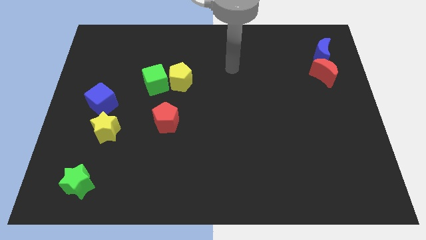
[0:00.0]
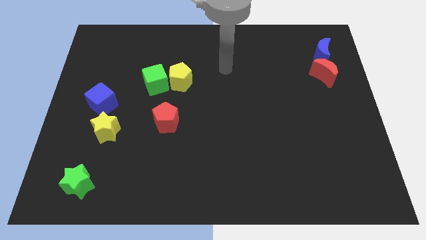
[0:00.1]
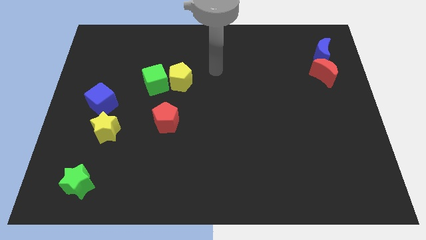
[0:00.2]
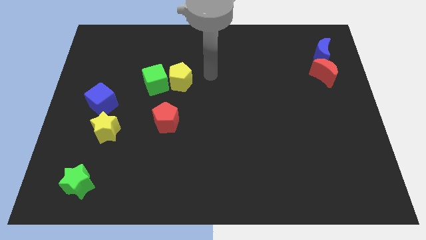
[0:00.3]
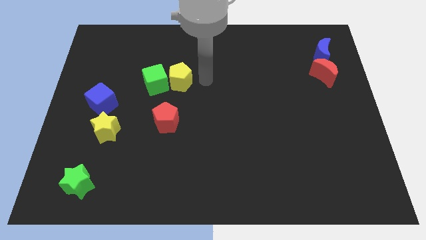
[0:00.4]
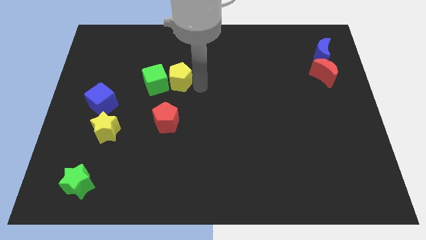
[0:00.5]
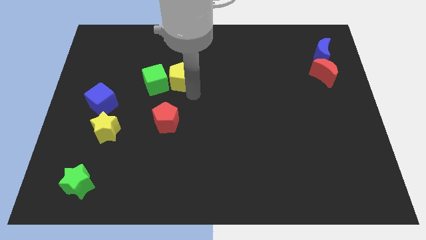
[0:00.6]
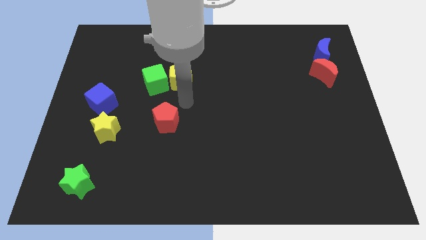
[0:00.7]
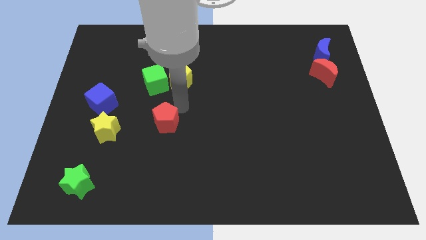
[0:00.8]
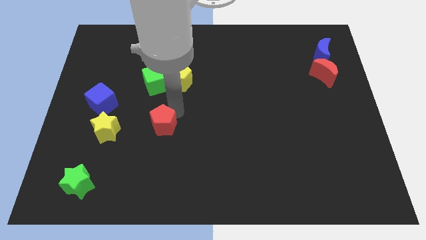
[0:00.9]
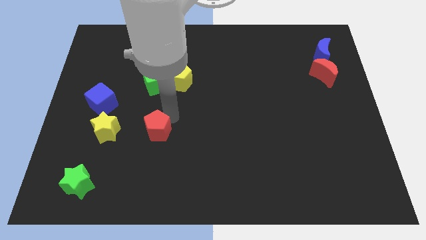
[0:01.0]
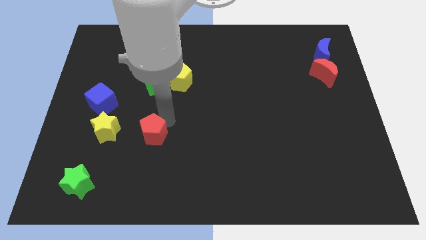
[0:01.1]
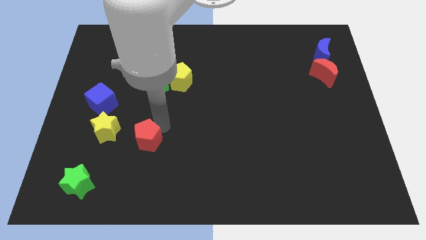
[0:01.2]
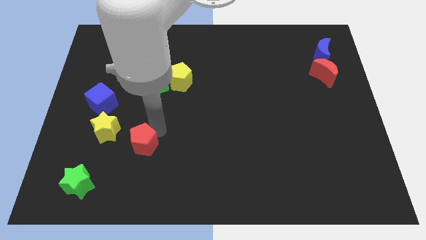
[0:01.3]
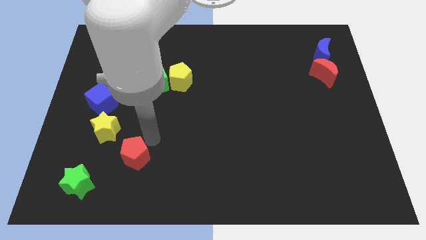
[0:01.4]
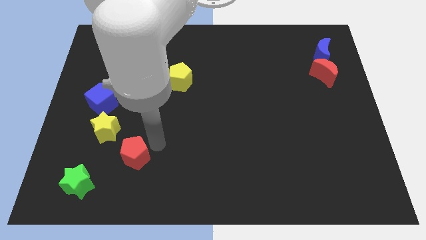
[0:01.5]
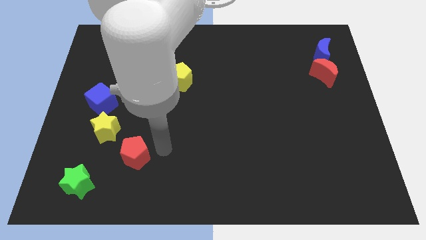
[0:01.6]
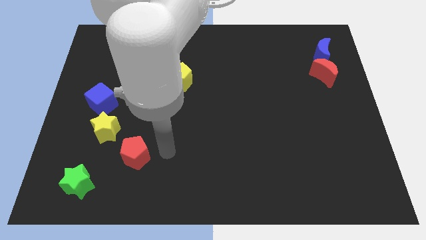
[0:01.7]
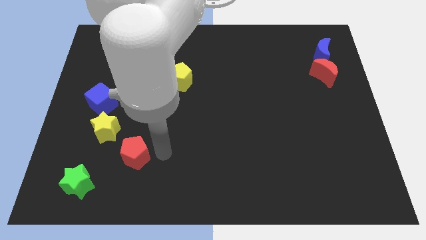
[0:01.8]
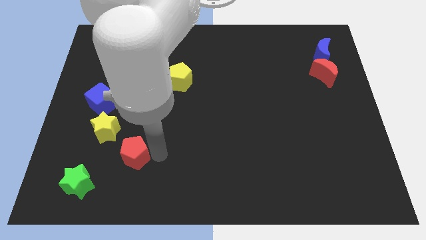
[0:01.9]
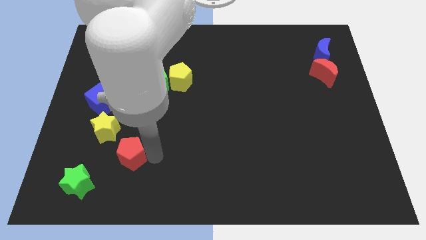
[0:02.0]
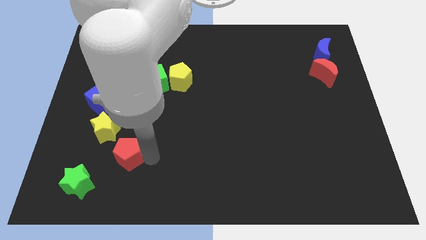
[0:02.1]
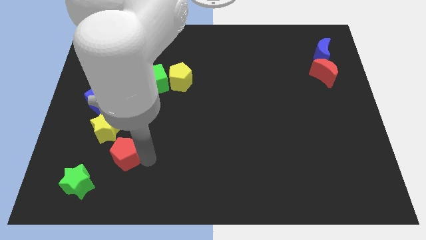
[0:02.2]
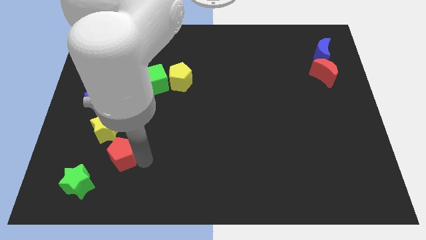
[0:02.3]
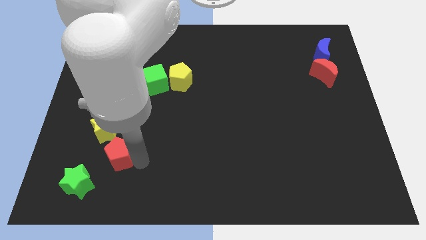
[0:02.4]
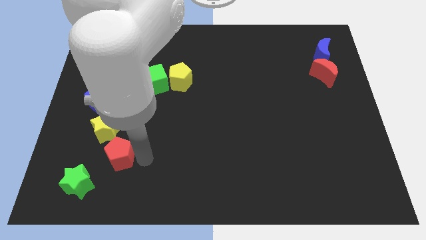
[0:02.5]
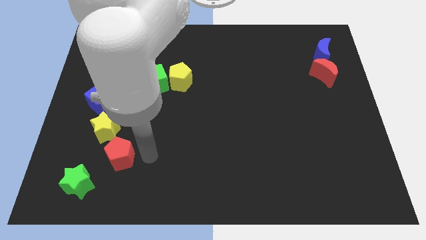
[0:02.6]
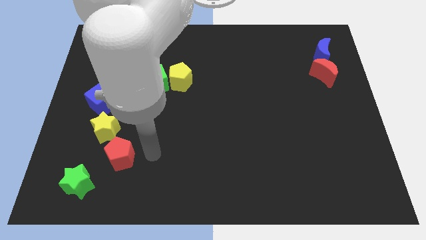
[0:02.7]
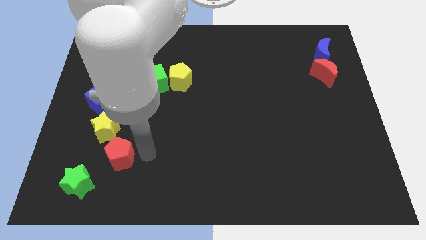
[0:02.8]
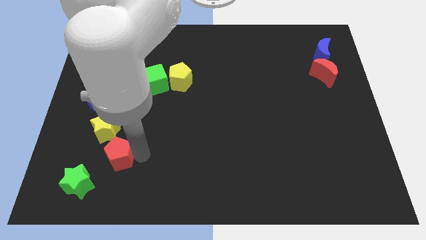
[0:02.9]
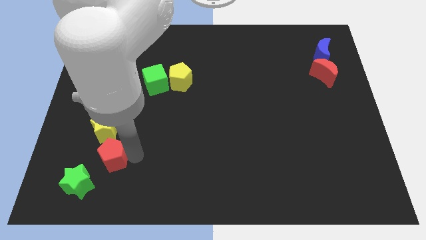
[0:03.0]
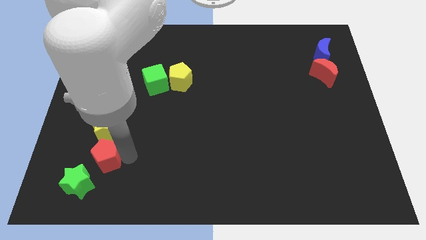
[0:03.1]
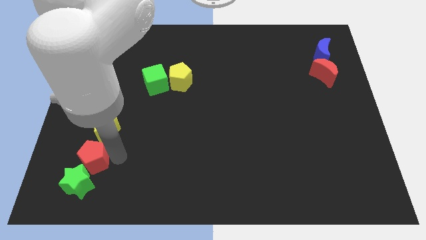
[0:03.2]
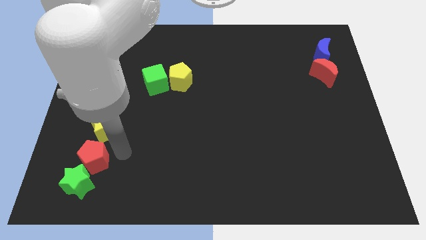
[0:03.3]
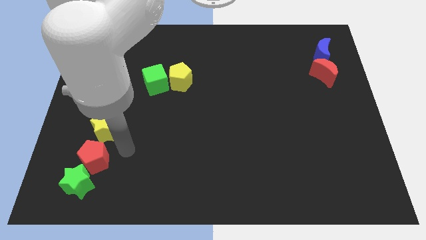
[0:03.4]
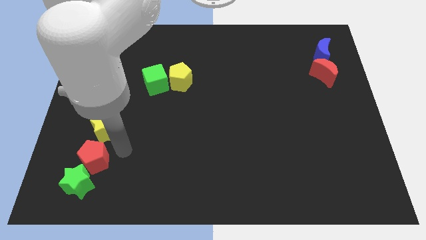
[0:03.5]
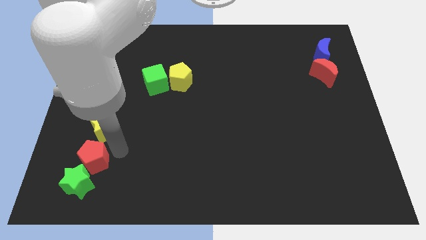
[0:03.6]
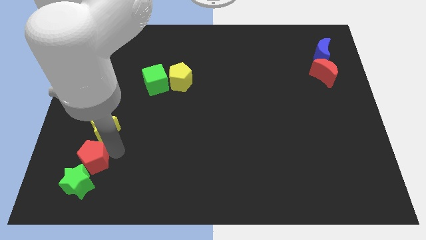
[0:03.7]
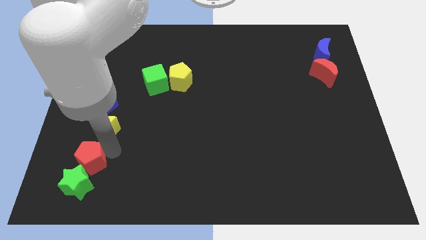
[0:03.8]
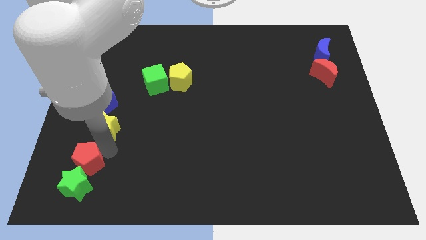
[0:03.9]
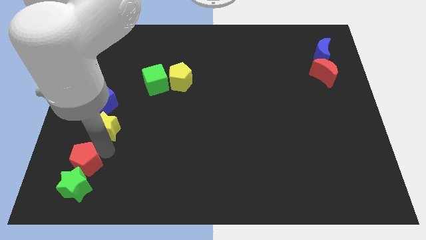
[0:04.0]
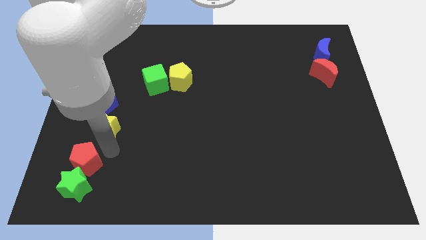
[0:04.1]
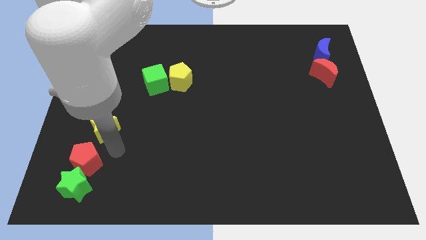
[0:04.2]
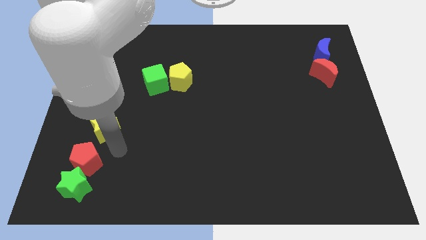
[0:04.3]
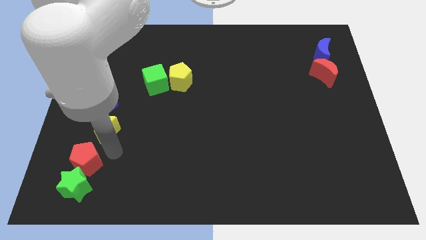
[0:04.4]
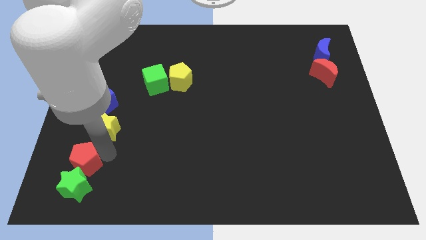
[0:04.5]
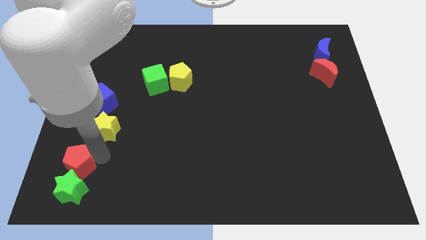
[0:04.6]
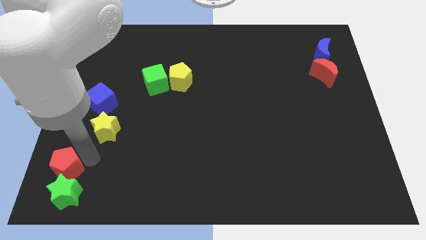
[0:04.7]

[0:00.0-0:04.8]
push the red pentagon to the bottom left of the board

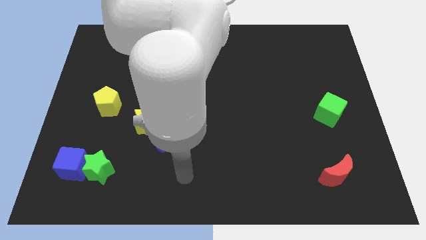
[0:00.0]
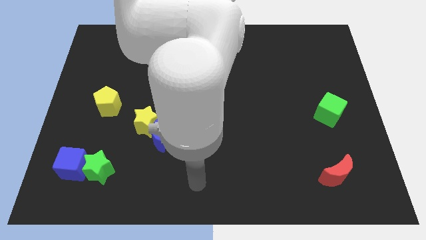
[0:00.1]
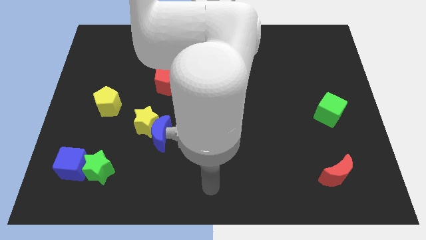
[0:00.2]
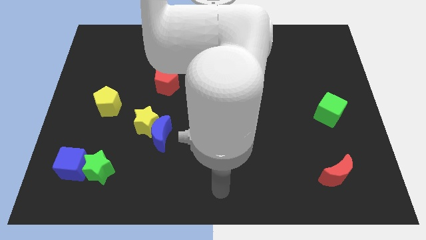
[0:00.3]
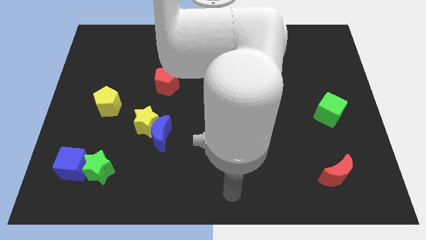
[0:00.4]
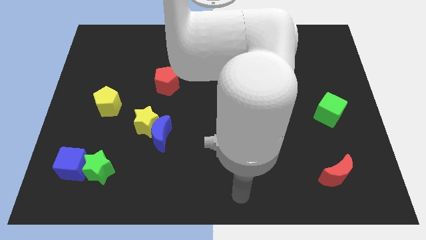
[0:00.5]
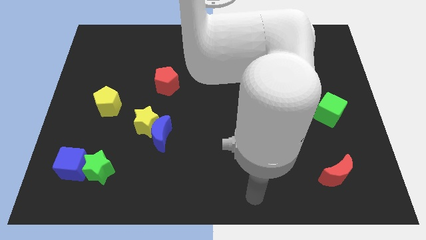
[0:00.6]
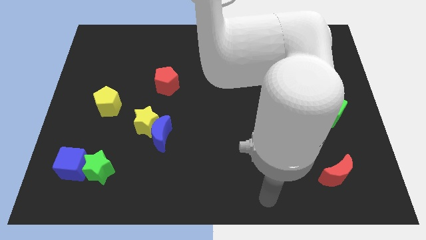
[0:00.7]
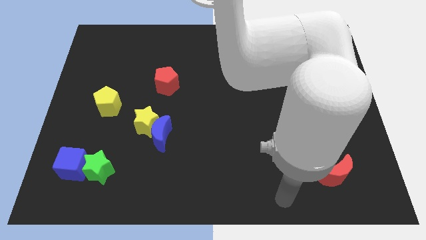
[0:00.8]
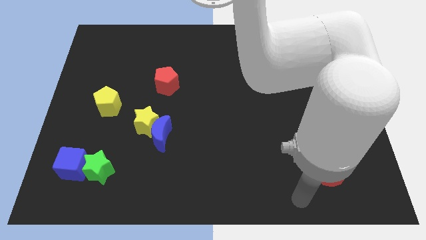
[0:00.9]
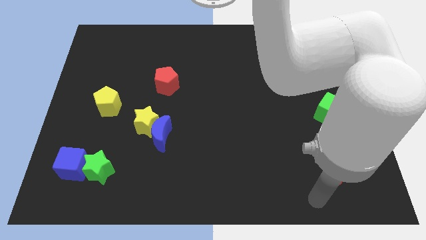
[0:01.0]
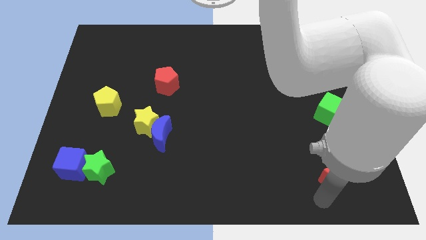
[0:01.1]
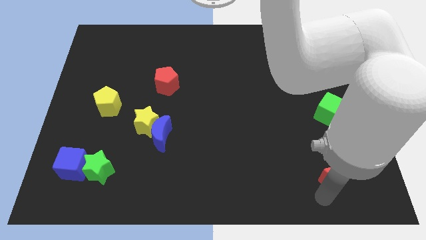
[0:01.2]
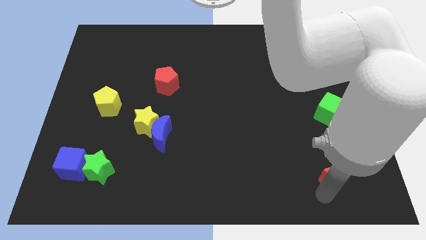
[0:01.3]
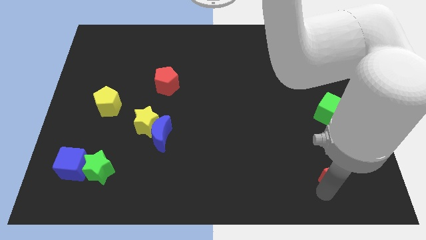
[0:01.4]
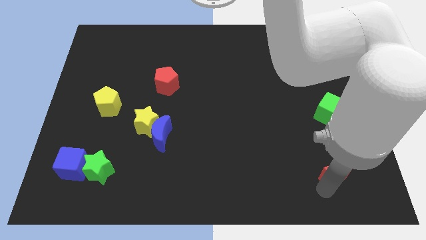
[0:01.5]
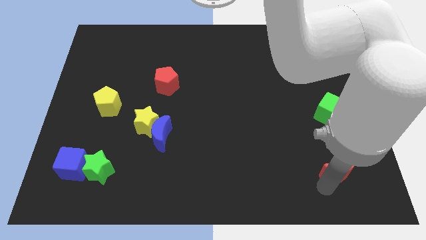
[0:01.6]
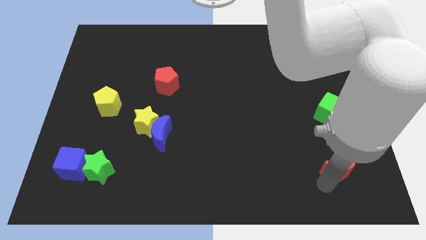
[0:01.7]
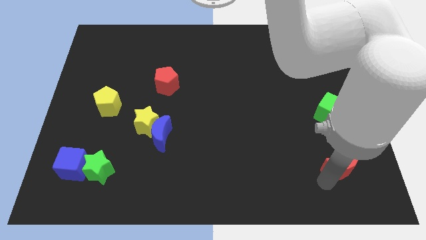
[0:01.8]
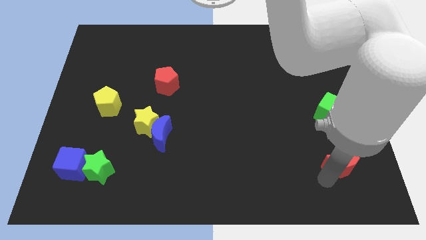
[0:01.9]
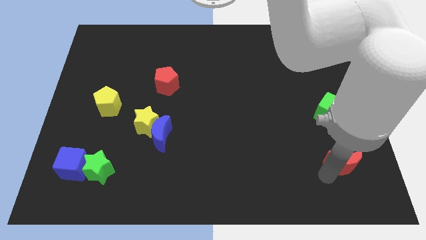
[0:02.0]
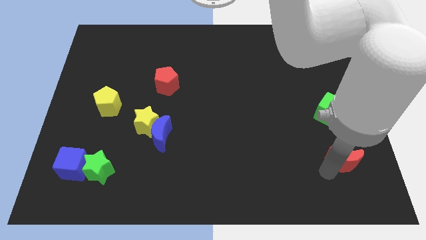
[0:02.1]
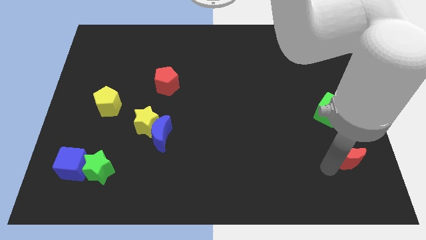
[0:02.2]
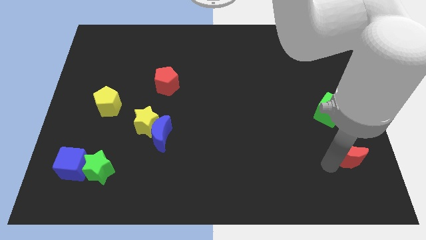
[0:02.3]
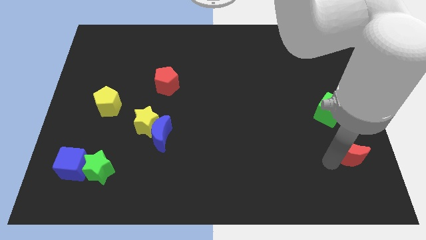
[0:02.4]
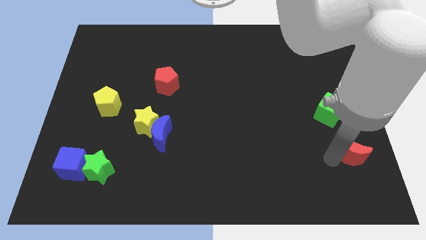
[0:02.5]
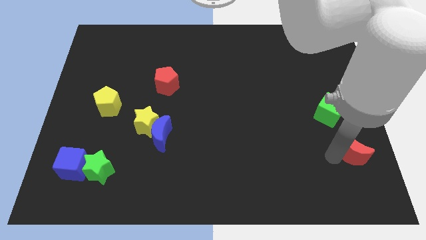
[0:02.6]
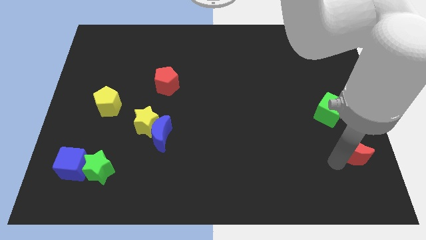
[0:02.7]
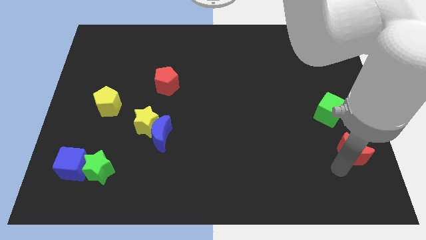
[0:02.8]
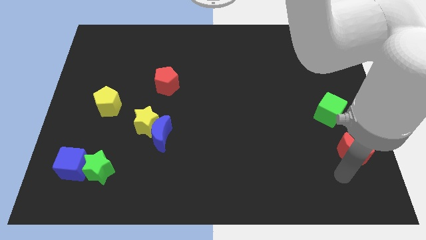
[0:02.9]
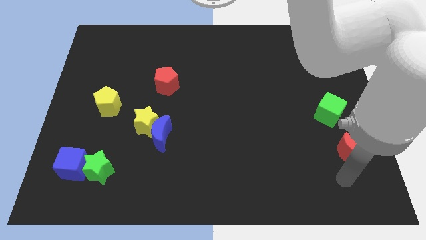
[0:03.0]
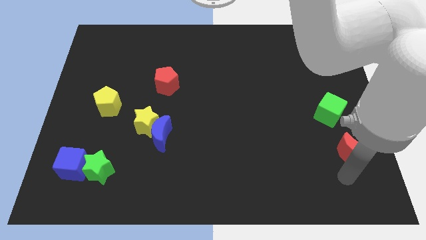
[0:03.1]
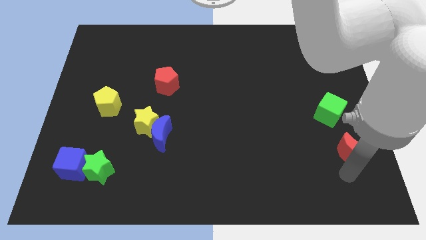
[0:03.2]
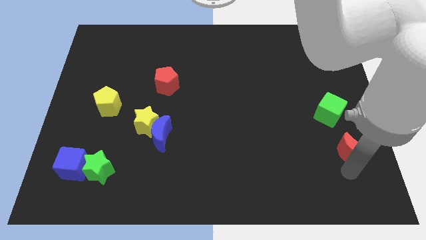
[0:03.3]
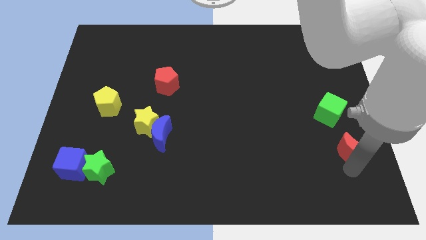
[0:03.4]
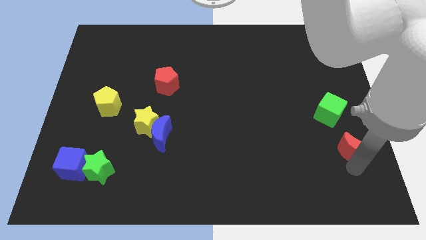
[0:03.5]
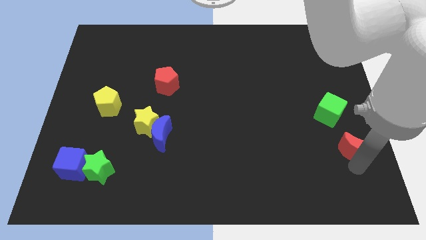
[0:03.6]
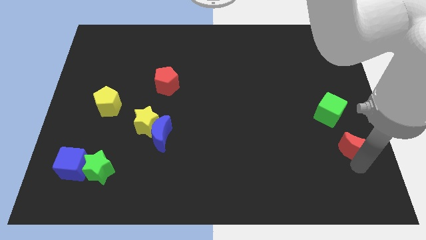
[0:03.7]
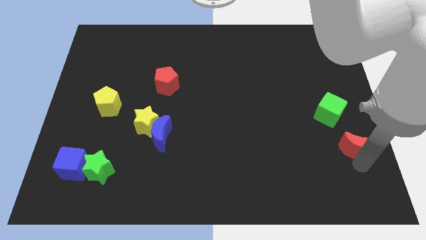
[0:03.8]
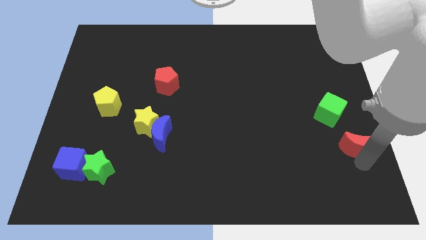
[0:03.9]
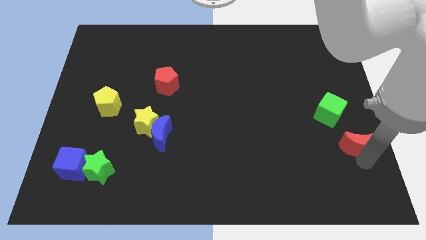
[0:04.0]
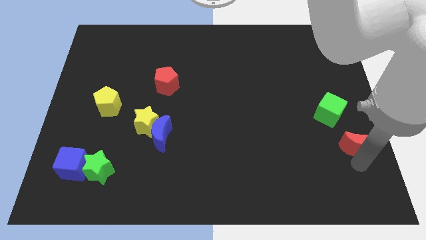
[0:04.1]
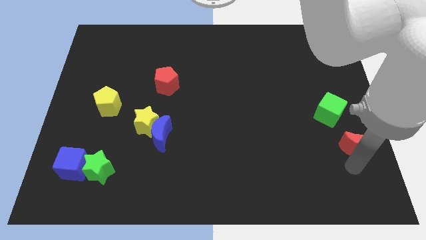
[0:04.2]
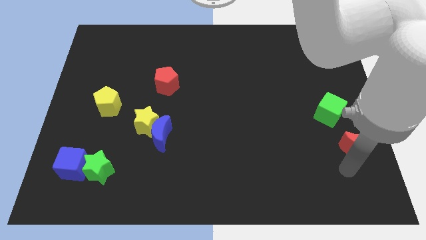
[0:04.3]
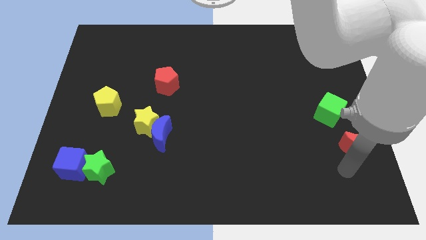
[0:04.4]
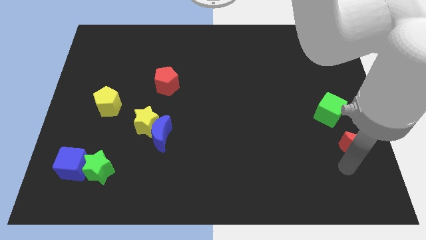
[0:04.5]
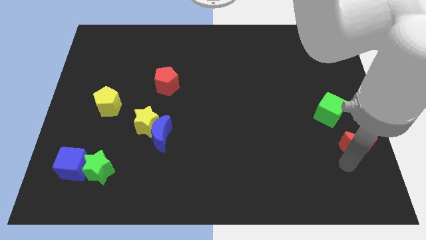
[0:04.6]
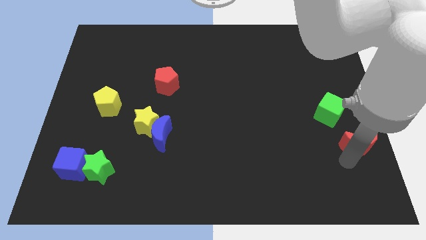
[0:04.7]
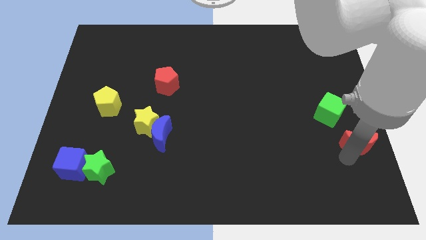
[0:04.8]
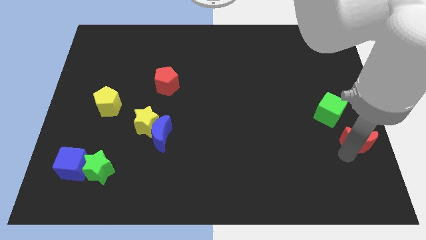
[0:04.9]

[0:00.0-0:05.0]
slide the red moon to the right side
